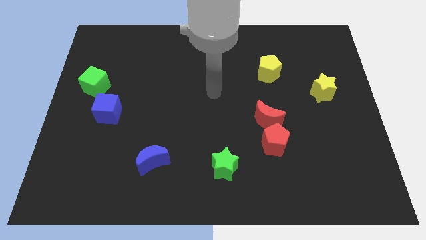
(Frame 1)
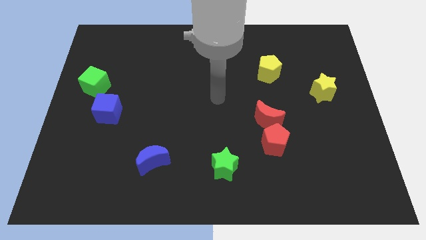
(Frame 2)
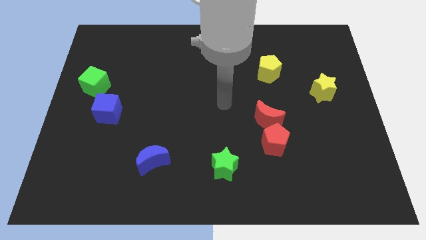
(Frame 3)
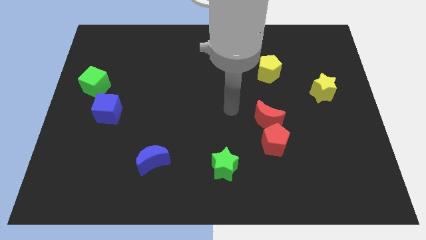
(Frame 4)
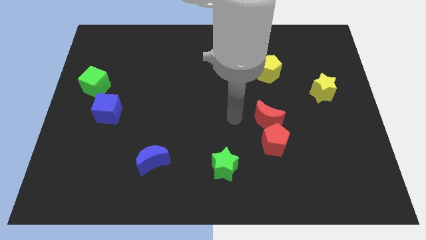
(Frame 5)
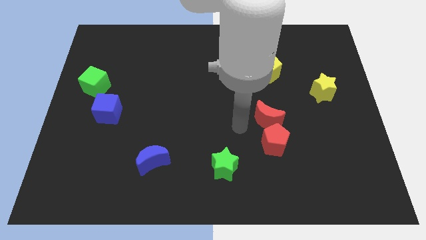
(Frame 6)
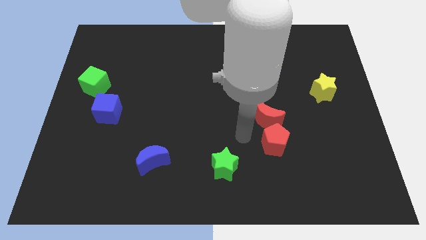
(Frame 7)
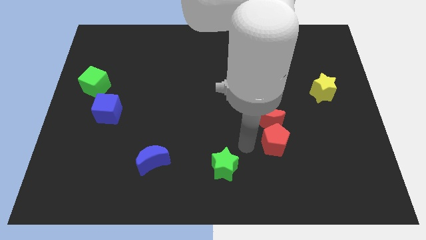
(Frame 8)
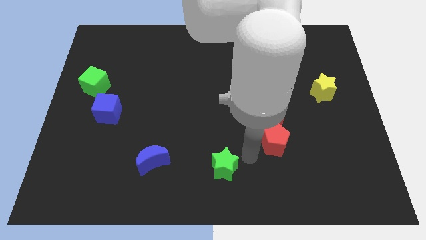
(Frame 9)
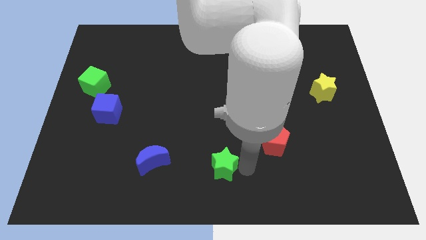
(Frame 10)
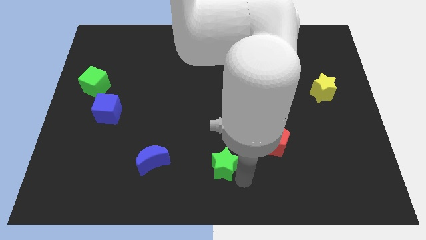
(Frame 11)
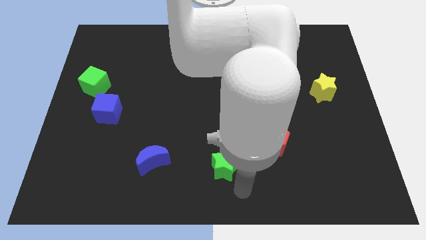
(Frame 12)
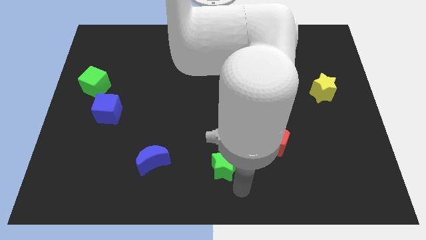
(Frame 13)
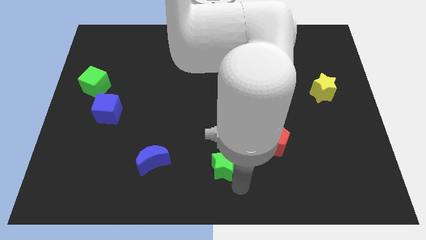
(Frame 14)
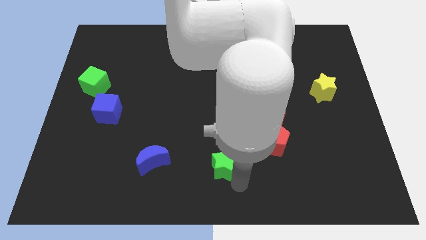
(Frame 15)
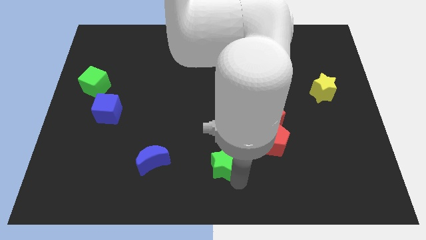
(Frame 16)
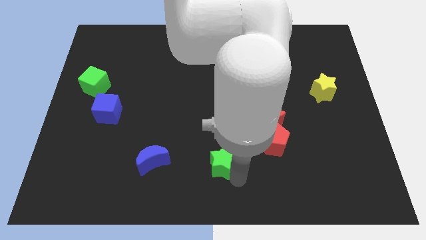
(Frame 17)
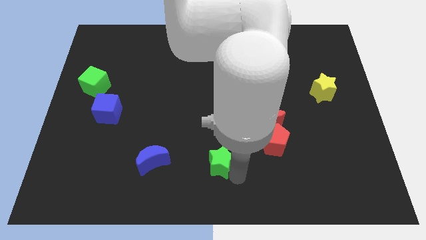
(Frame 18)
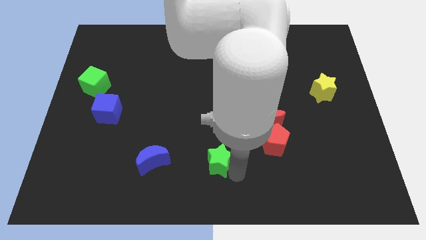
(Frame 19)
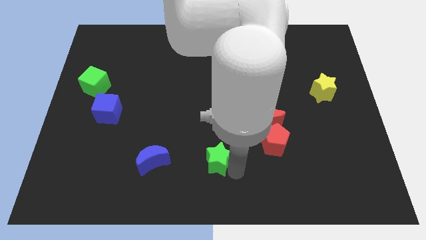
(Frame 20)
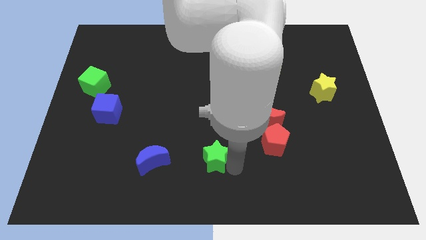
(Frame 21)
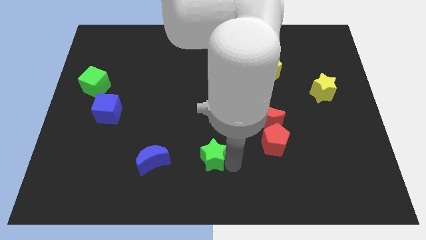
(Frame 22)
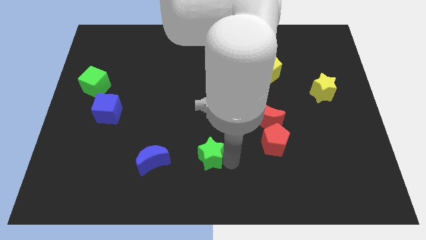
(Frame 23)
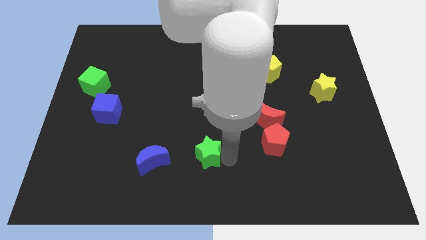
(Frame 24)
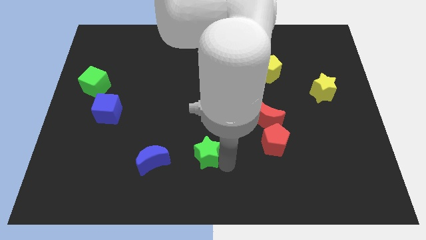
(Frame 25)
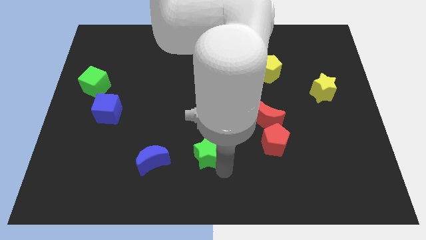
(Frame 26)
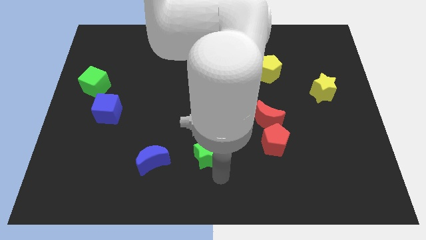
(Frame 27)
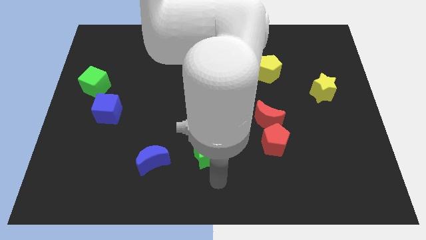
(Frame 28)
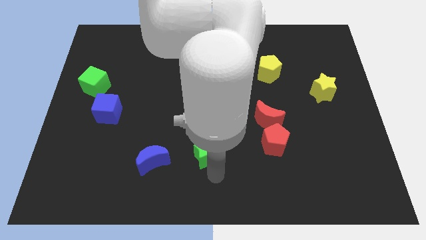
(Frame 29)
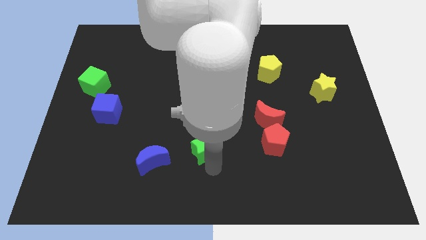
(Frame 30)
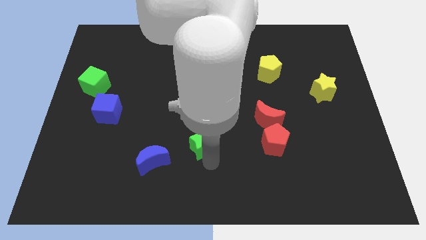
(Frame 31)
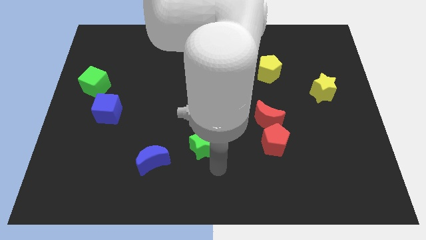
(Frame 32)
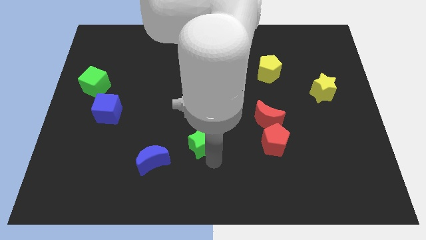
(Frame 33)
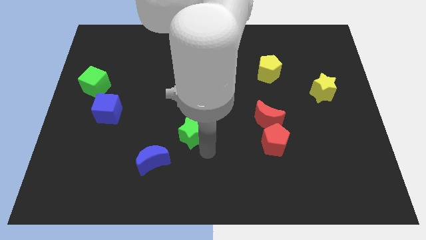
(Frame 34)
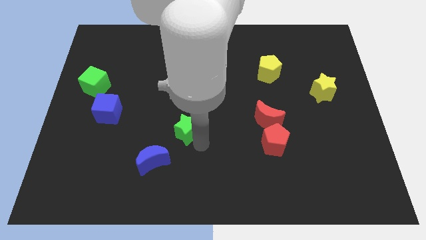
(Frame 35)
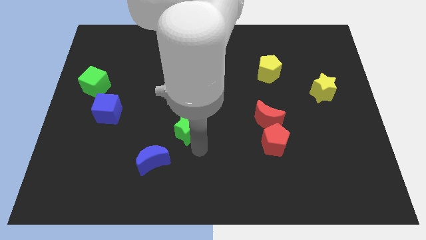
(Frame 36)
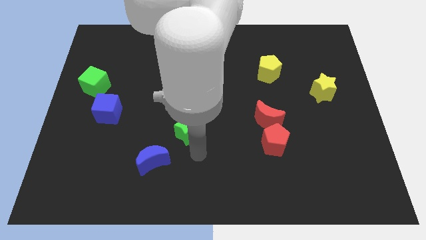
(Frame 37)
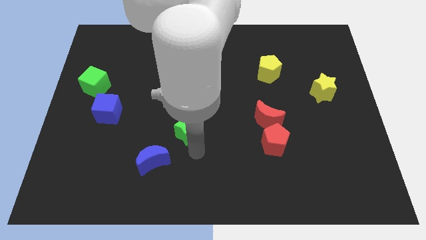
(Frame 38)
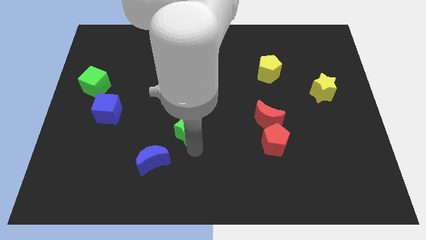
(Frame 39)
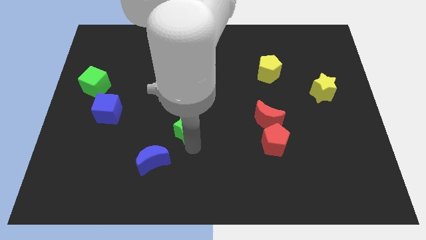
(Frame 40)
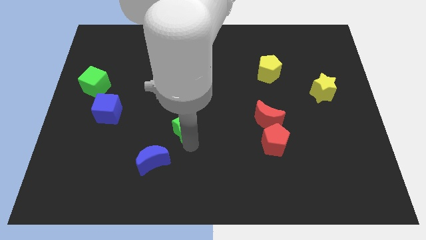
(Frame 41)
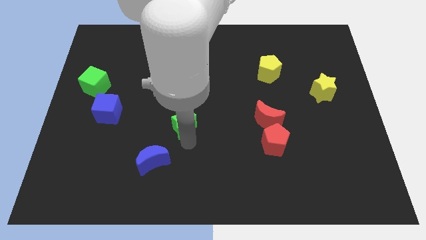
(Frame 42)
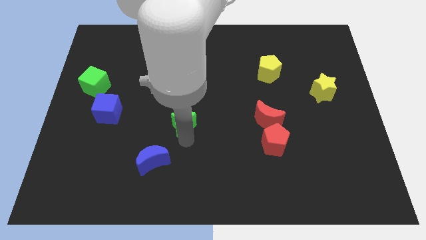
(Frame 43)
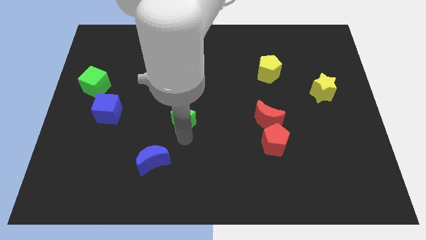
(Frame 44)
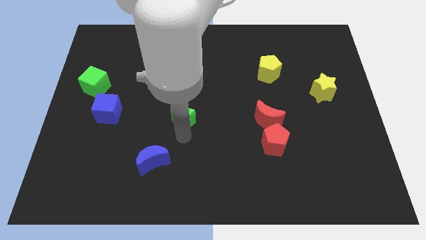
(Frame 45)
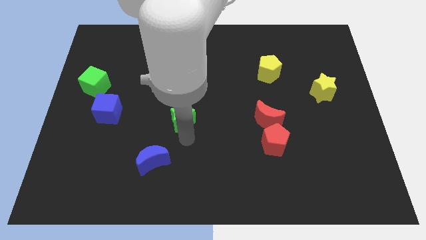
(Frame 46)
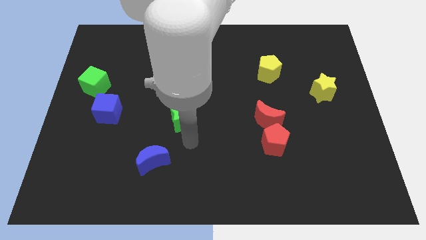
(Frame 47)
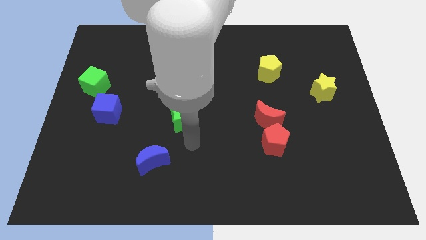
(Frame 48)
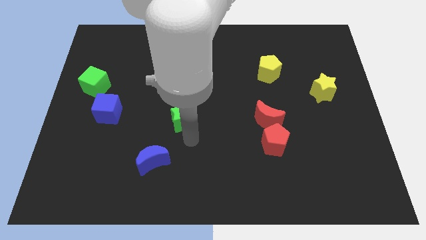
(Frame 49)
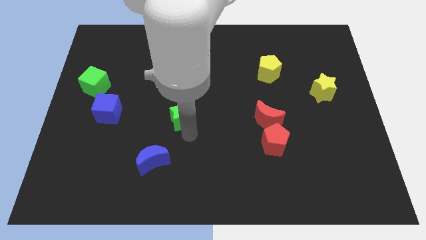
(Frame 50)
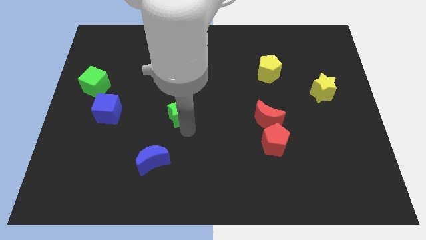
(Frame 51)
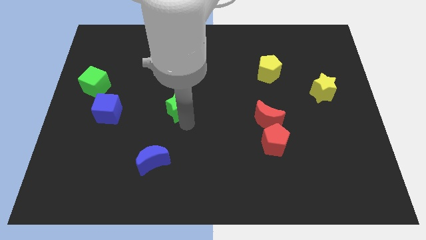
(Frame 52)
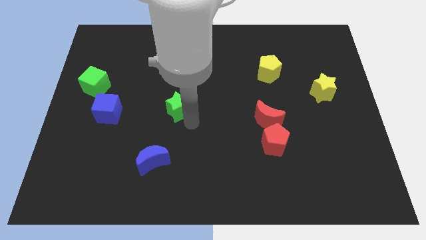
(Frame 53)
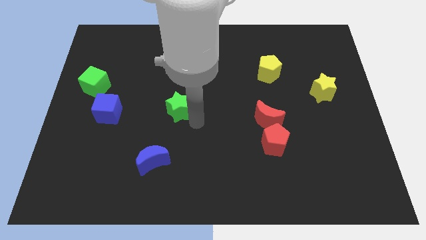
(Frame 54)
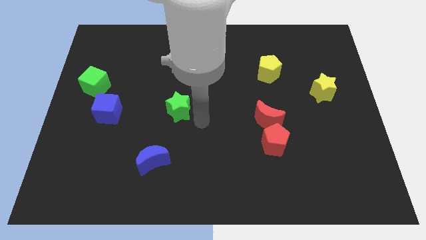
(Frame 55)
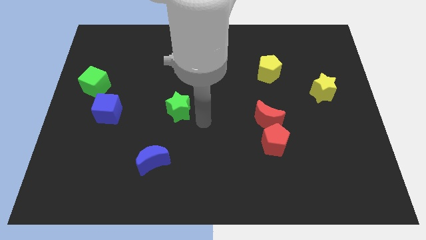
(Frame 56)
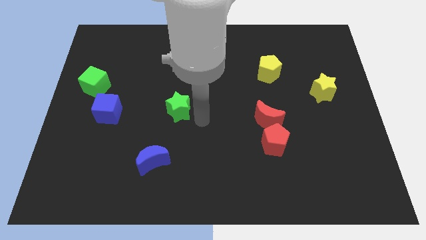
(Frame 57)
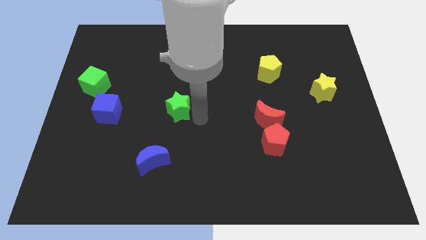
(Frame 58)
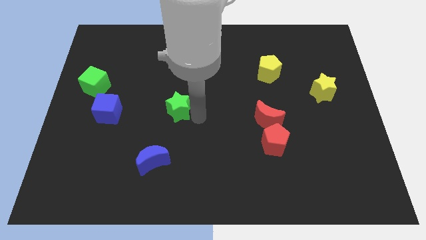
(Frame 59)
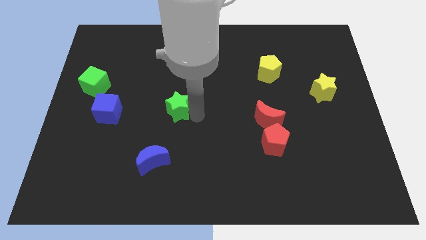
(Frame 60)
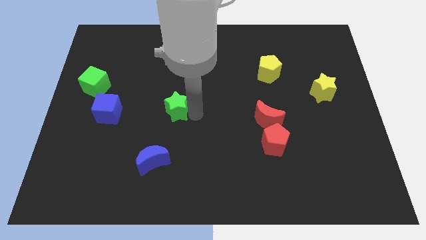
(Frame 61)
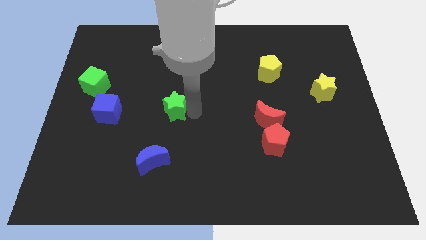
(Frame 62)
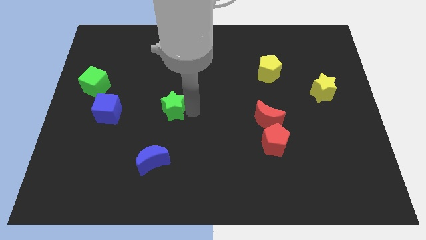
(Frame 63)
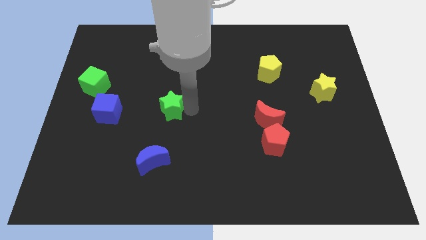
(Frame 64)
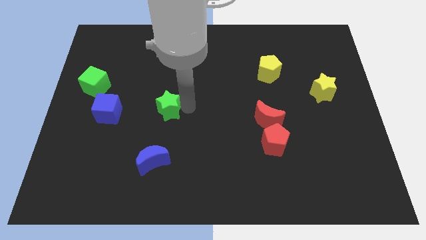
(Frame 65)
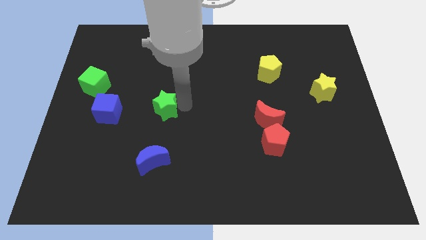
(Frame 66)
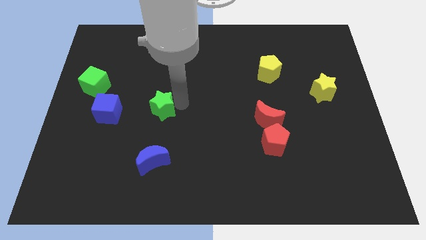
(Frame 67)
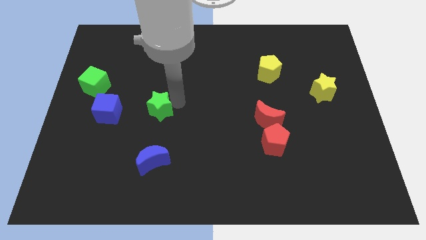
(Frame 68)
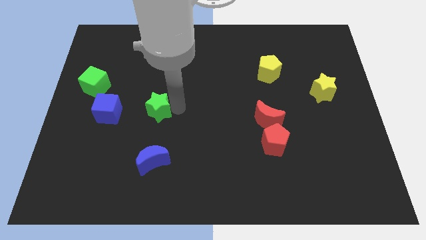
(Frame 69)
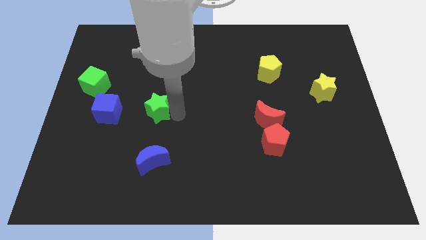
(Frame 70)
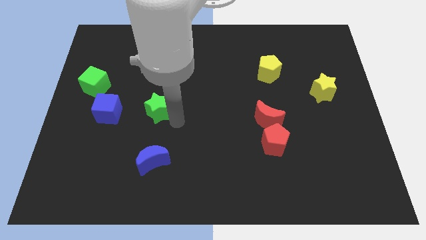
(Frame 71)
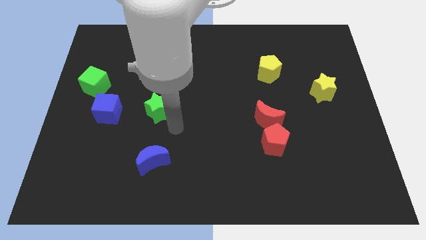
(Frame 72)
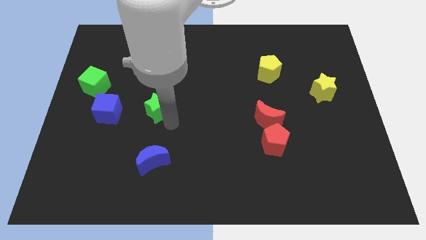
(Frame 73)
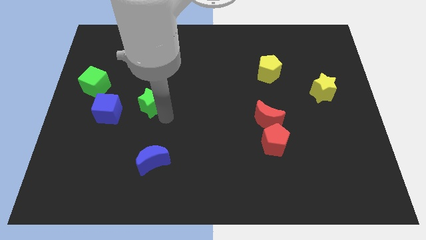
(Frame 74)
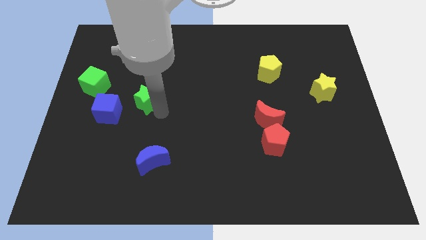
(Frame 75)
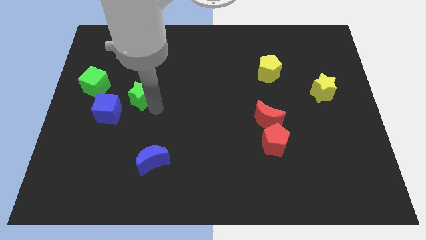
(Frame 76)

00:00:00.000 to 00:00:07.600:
move the green star to the right of the green cube

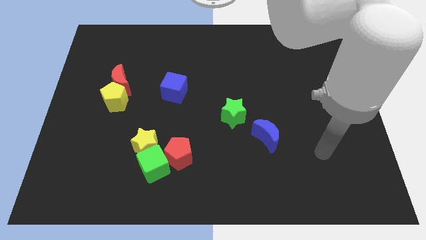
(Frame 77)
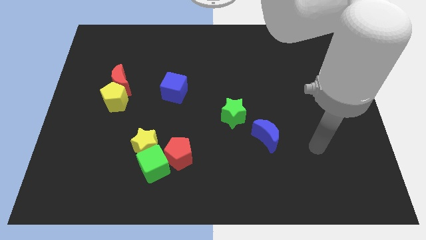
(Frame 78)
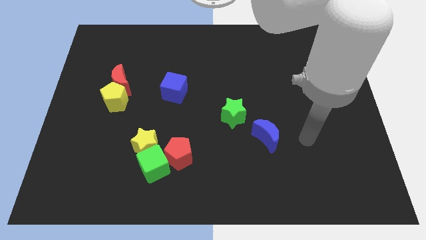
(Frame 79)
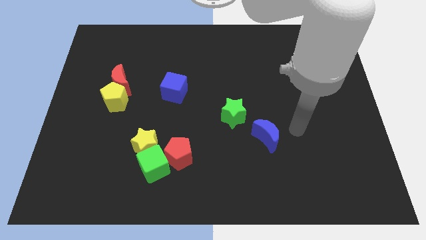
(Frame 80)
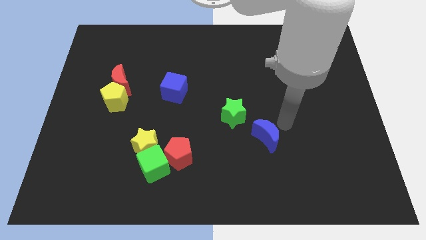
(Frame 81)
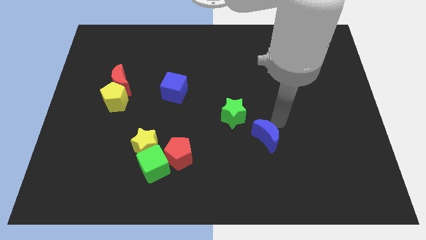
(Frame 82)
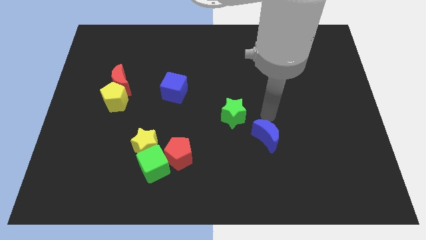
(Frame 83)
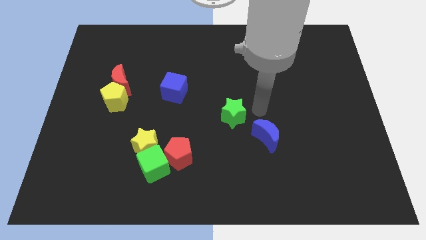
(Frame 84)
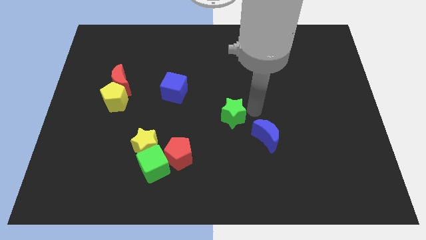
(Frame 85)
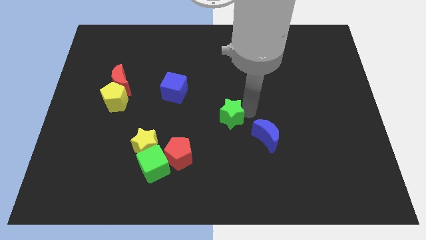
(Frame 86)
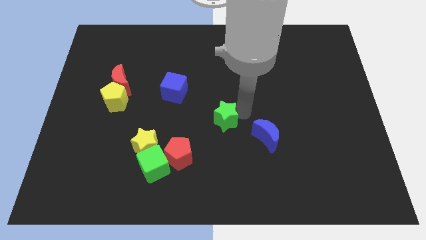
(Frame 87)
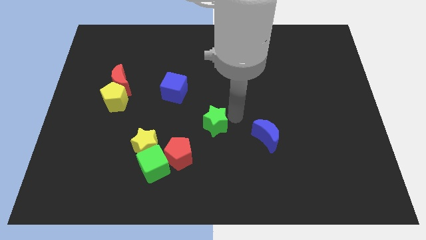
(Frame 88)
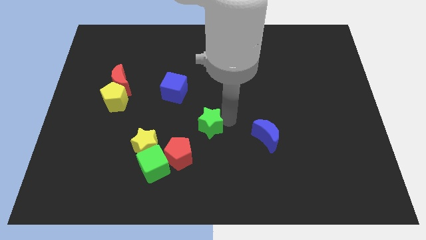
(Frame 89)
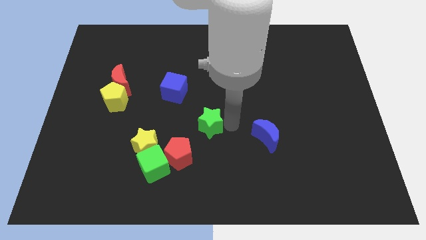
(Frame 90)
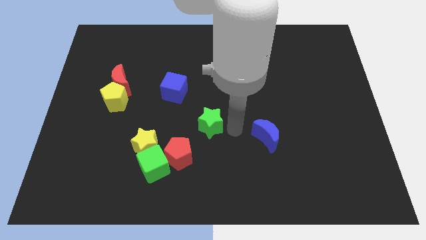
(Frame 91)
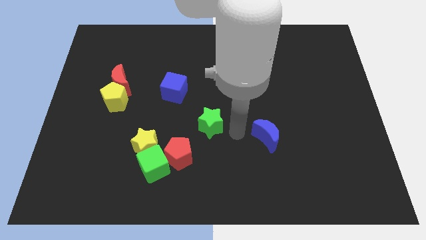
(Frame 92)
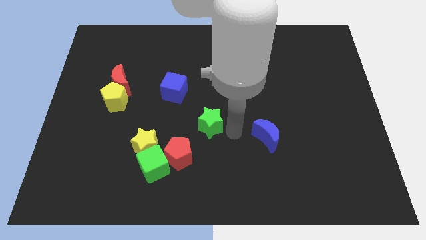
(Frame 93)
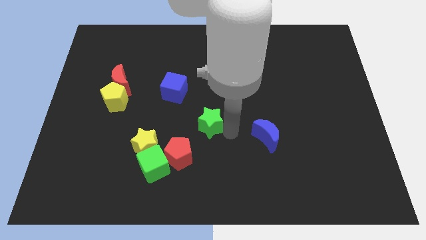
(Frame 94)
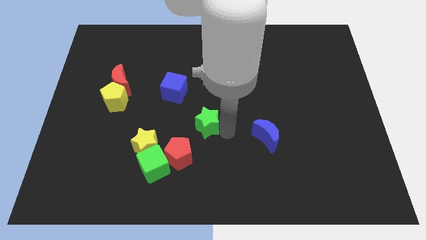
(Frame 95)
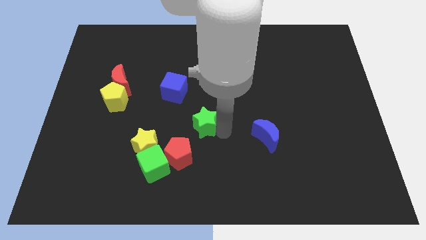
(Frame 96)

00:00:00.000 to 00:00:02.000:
put the green star above the red pentagon
